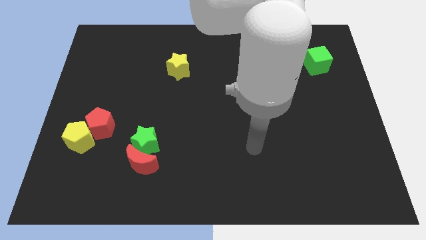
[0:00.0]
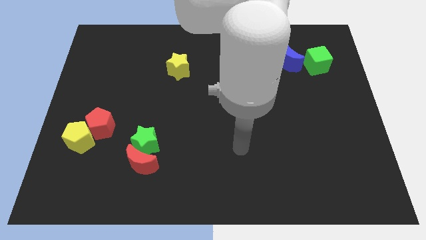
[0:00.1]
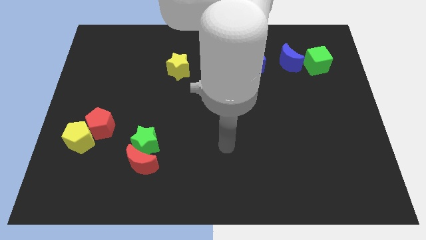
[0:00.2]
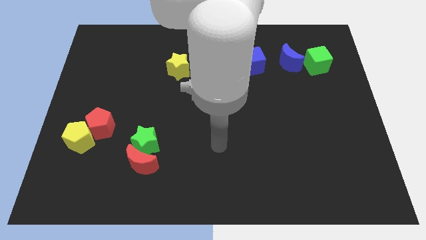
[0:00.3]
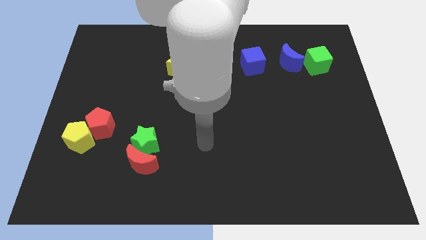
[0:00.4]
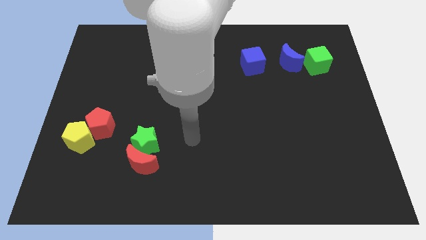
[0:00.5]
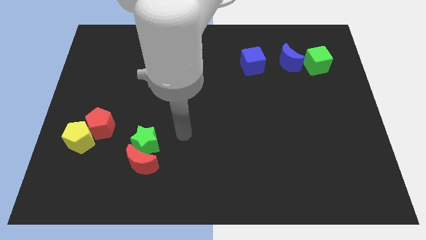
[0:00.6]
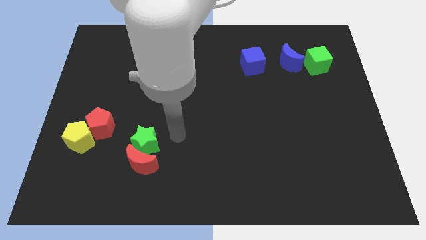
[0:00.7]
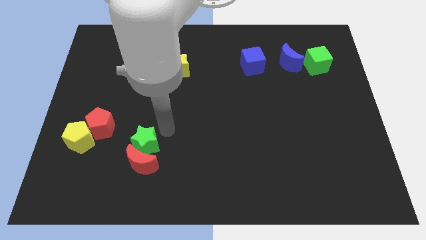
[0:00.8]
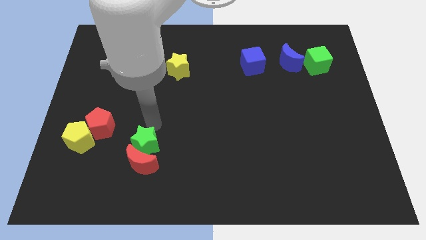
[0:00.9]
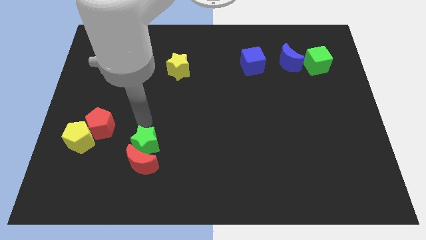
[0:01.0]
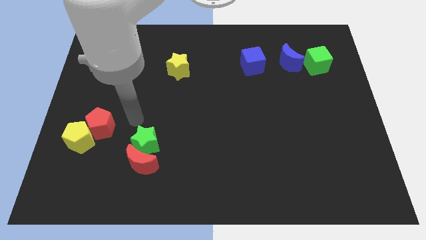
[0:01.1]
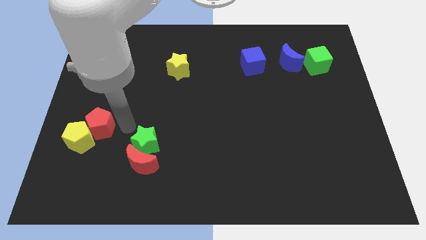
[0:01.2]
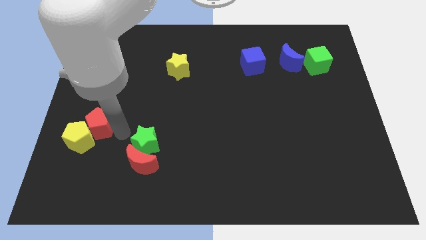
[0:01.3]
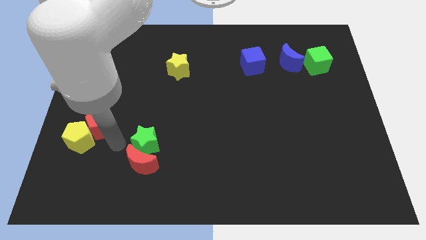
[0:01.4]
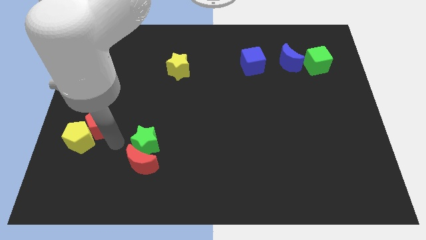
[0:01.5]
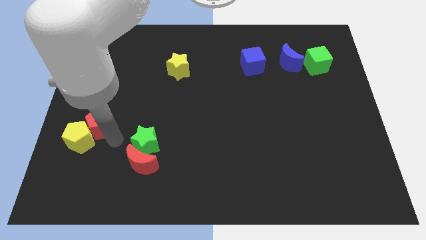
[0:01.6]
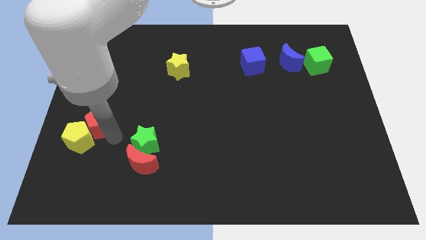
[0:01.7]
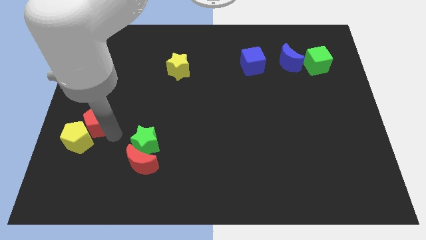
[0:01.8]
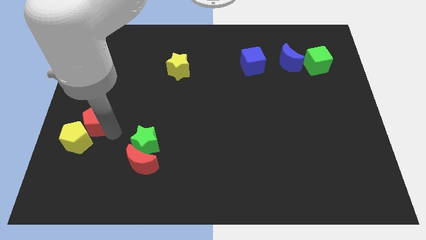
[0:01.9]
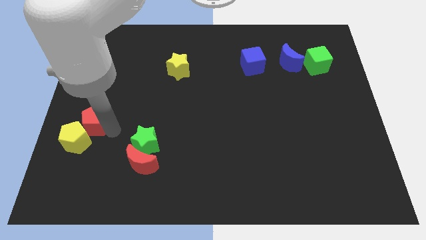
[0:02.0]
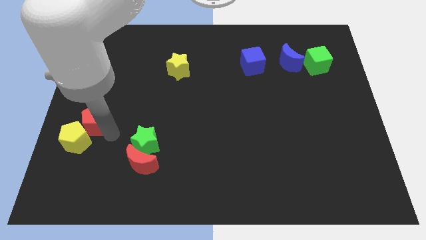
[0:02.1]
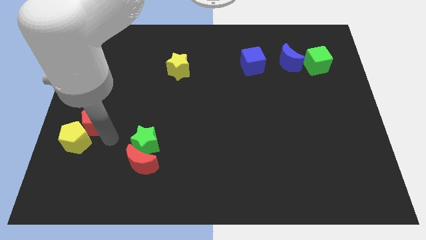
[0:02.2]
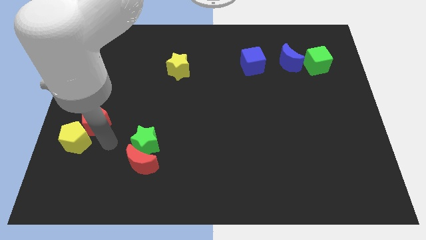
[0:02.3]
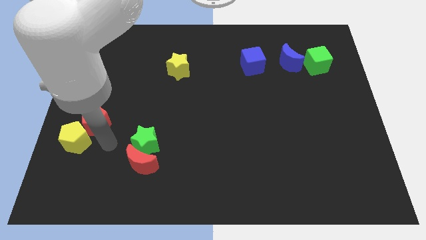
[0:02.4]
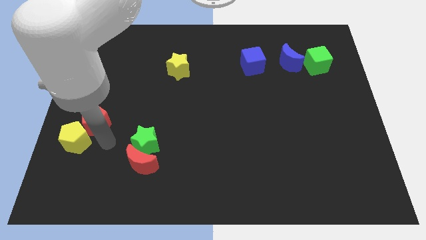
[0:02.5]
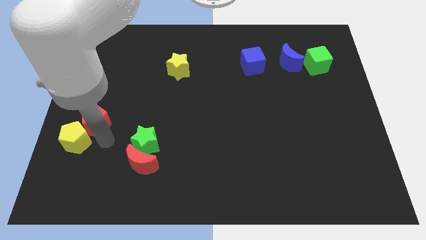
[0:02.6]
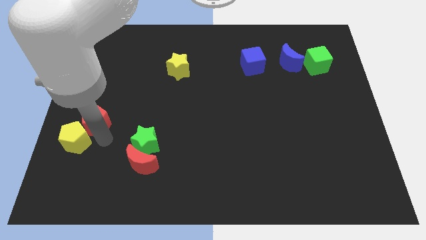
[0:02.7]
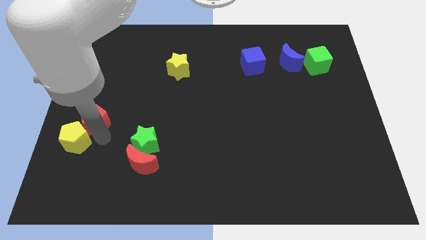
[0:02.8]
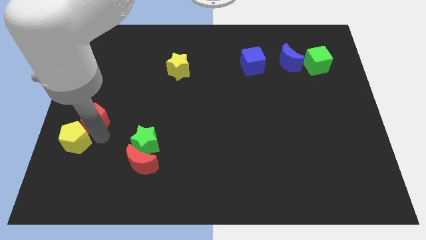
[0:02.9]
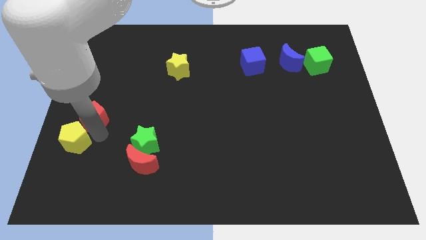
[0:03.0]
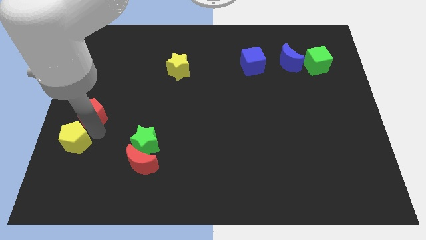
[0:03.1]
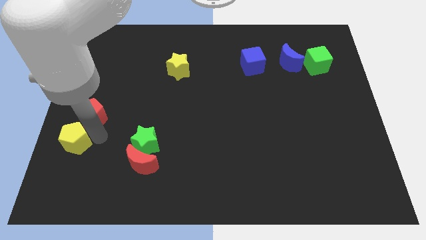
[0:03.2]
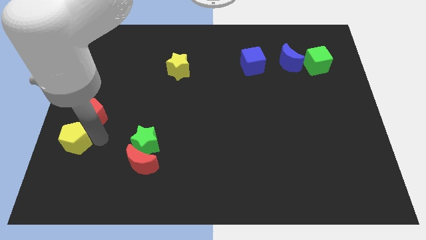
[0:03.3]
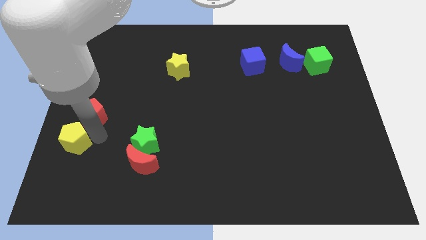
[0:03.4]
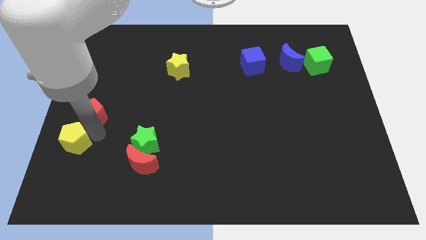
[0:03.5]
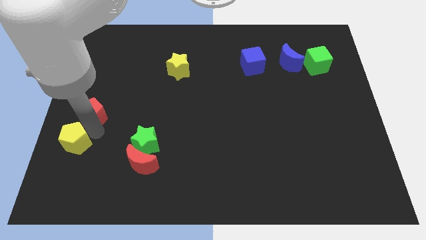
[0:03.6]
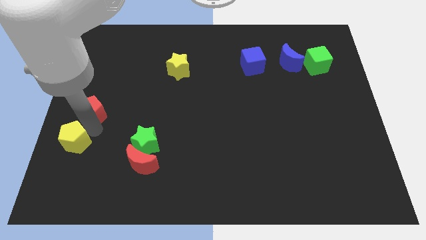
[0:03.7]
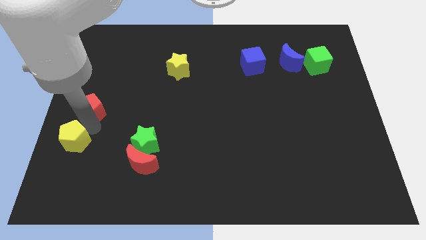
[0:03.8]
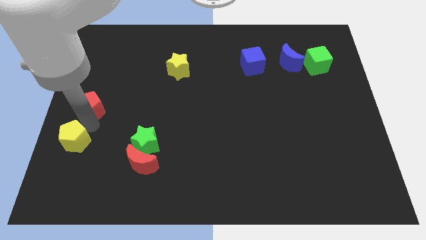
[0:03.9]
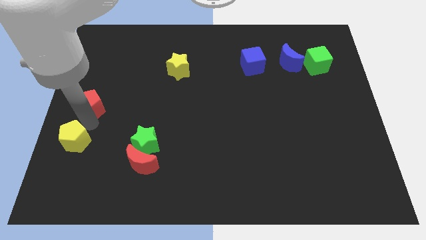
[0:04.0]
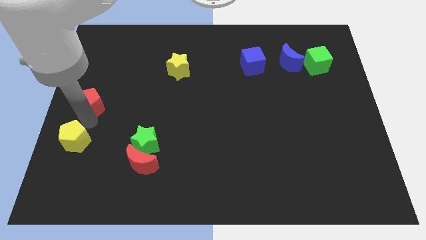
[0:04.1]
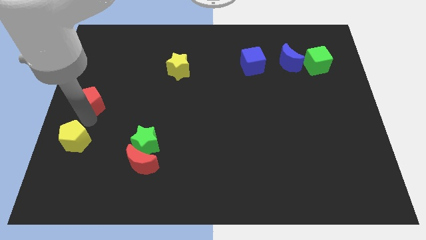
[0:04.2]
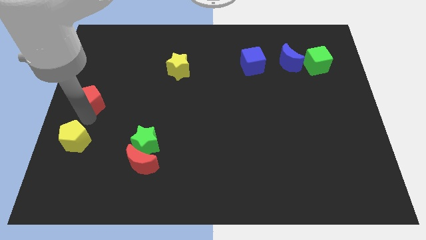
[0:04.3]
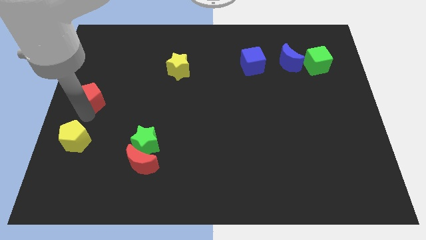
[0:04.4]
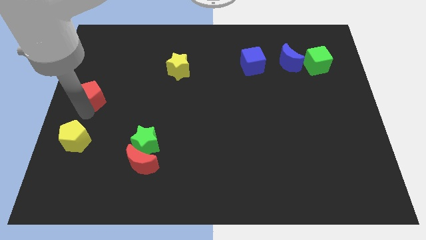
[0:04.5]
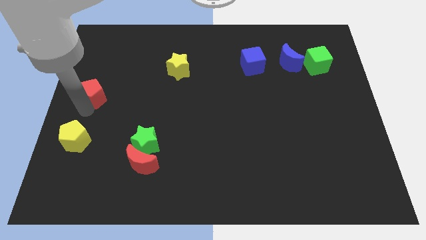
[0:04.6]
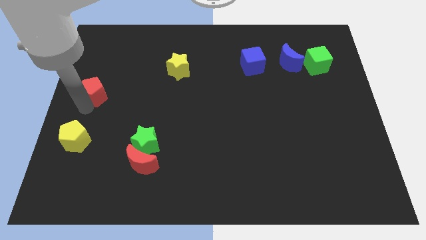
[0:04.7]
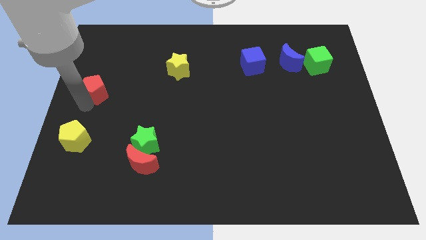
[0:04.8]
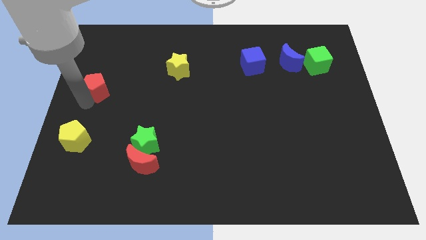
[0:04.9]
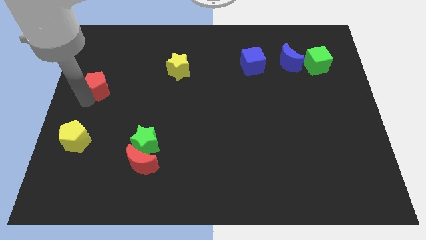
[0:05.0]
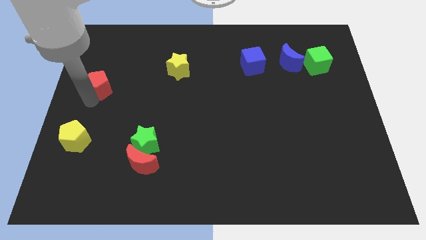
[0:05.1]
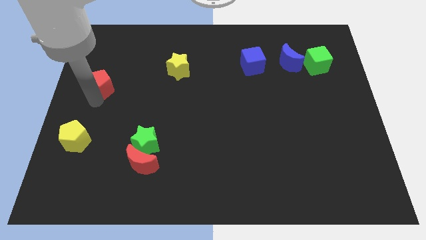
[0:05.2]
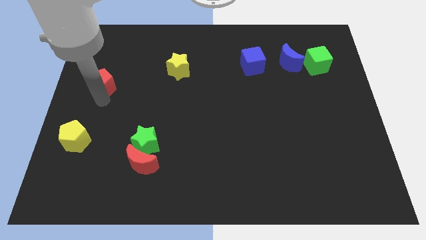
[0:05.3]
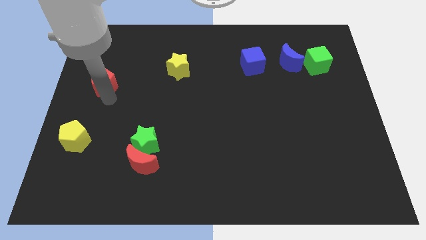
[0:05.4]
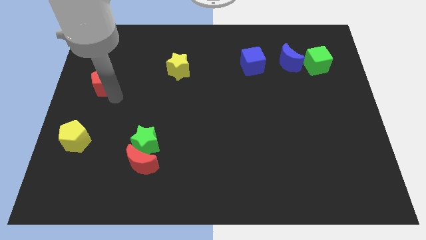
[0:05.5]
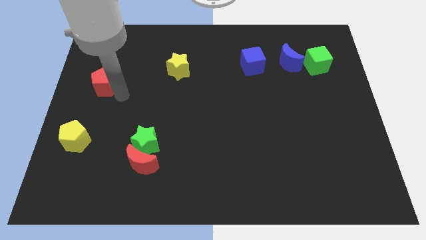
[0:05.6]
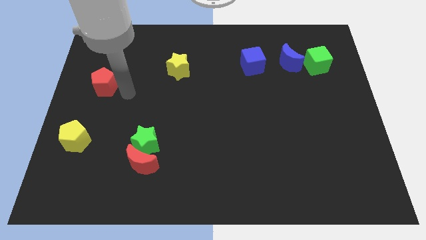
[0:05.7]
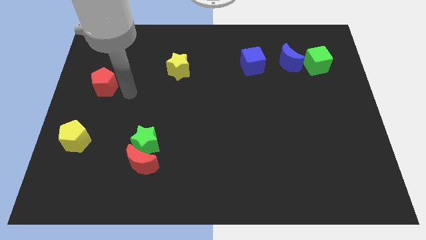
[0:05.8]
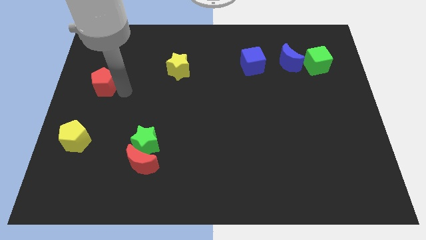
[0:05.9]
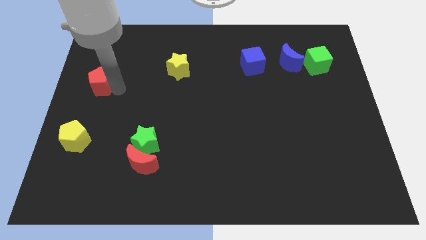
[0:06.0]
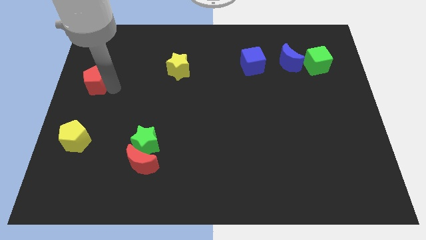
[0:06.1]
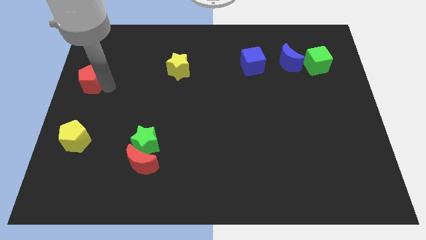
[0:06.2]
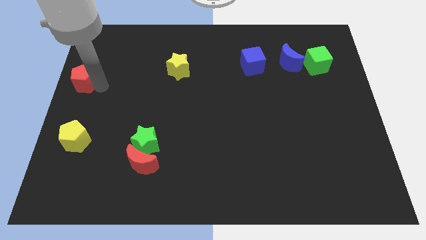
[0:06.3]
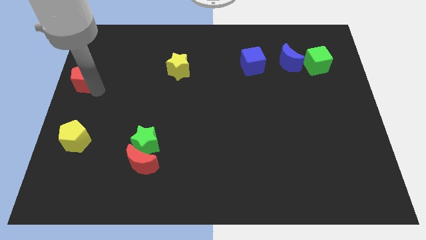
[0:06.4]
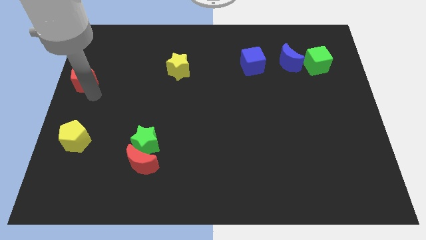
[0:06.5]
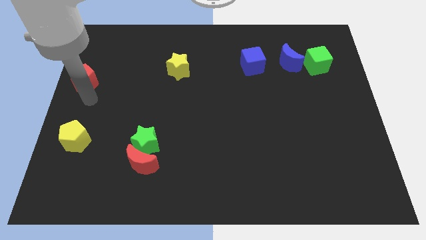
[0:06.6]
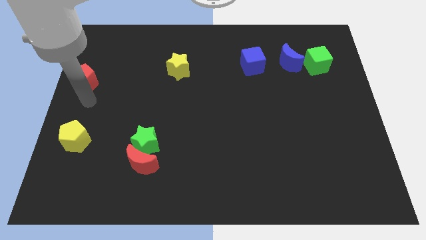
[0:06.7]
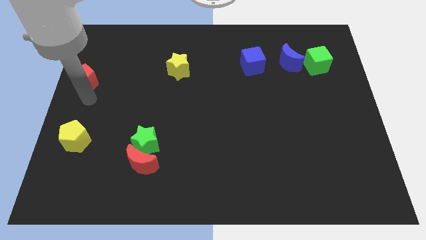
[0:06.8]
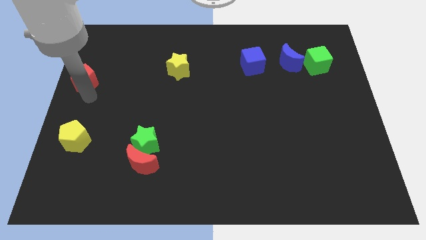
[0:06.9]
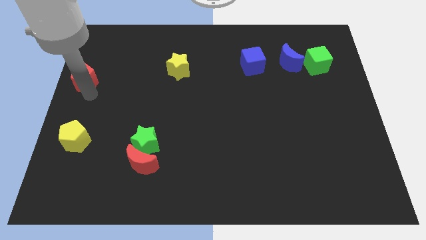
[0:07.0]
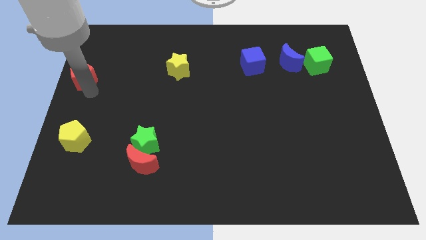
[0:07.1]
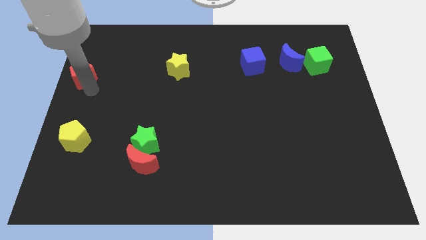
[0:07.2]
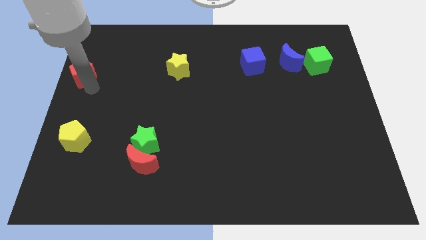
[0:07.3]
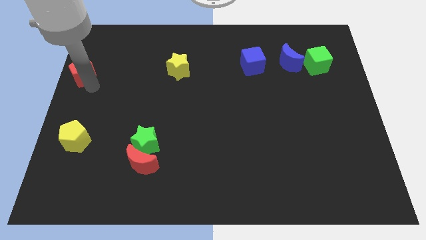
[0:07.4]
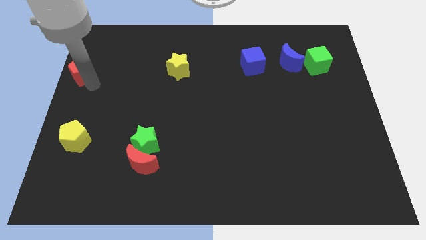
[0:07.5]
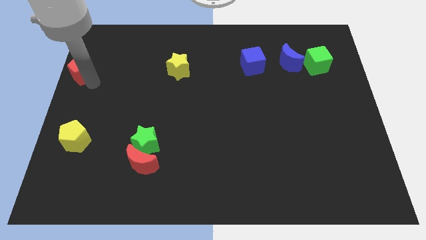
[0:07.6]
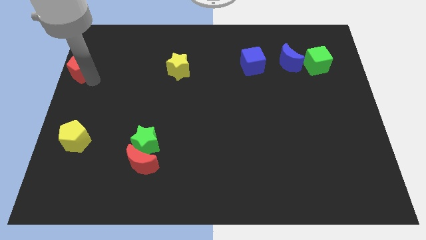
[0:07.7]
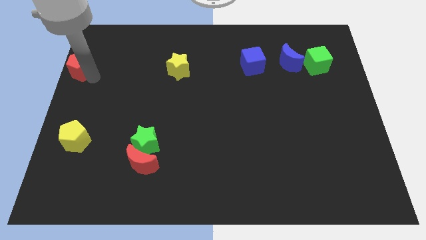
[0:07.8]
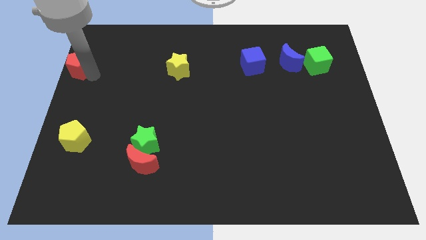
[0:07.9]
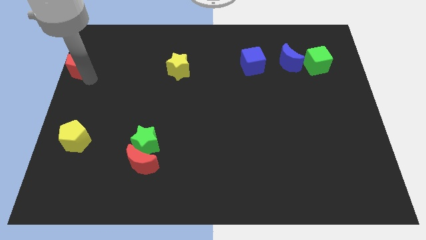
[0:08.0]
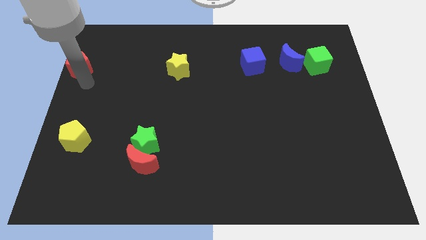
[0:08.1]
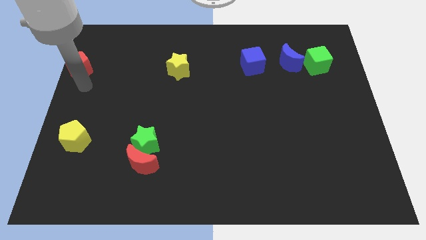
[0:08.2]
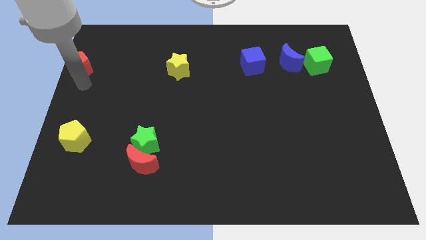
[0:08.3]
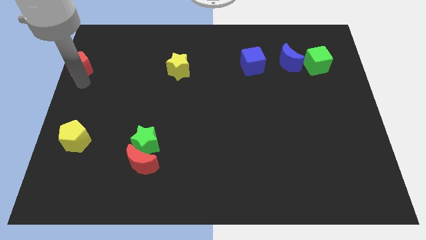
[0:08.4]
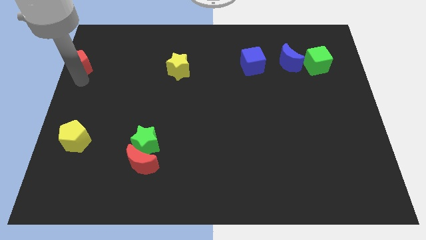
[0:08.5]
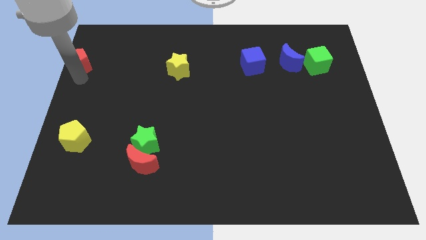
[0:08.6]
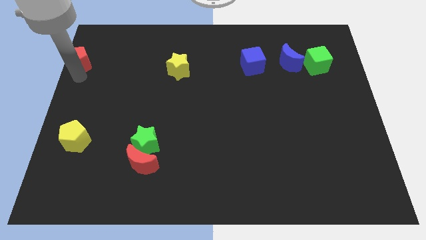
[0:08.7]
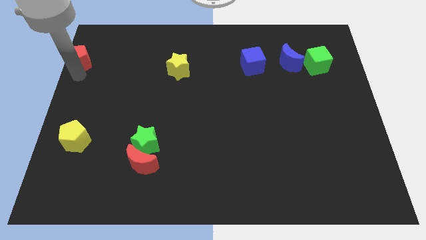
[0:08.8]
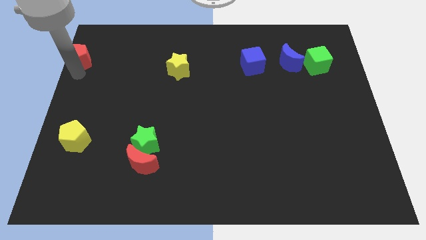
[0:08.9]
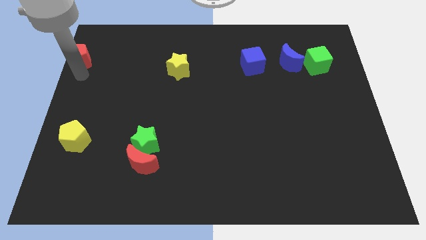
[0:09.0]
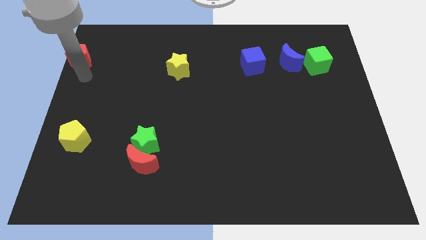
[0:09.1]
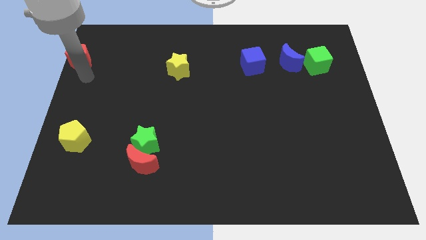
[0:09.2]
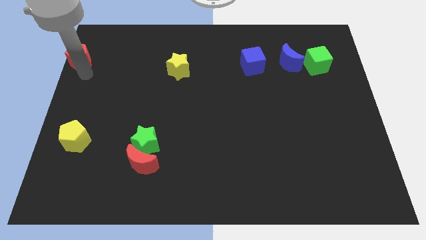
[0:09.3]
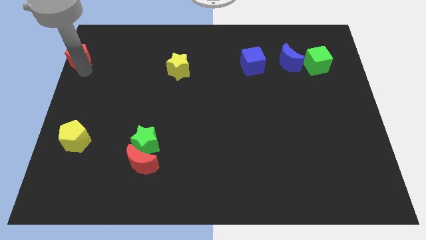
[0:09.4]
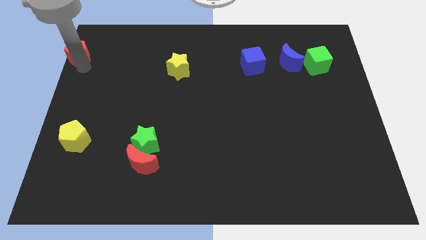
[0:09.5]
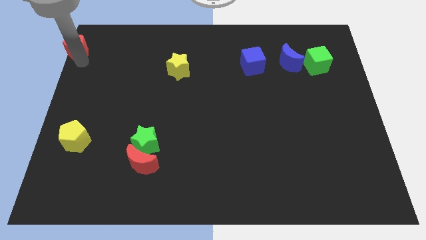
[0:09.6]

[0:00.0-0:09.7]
slide the red pentagon to the top left of the board
